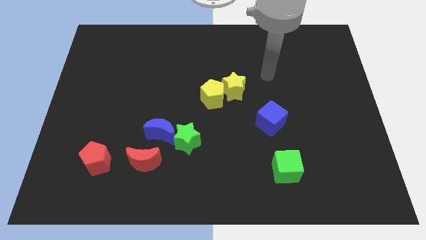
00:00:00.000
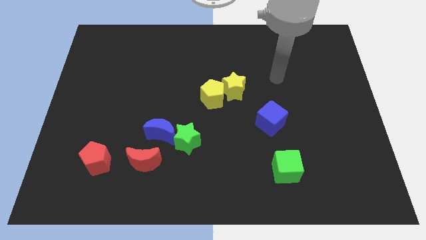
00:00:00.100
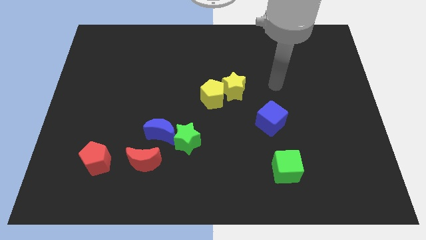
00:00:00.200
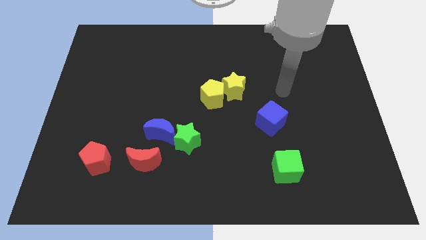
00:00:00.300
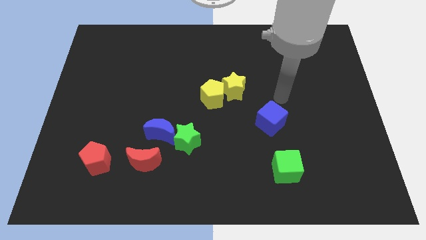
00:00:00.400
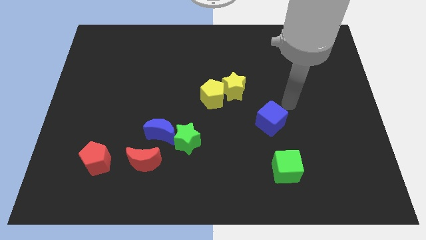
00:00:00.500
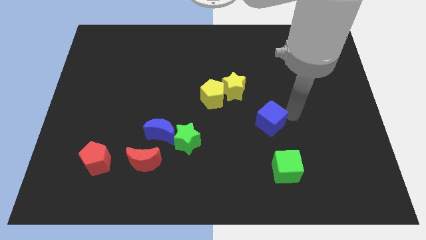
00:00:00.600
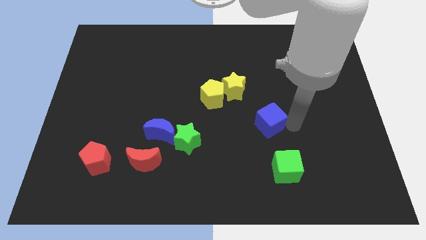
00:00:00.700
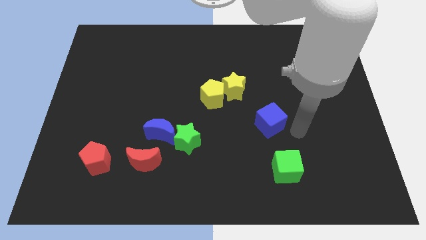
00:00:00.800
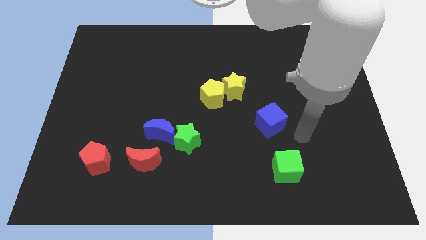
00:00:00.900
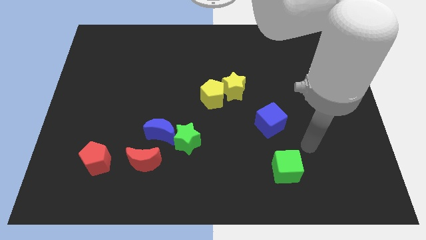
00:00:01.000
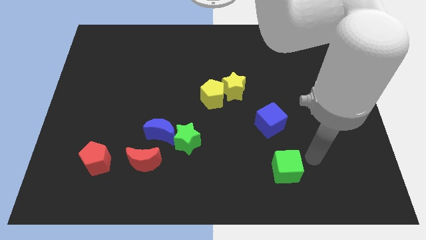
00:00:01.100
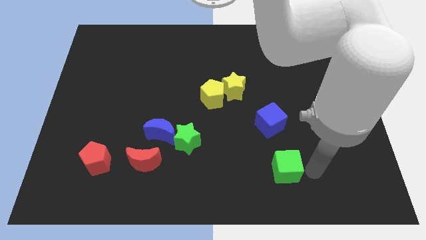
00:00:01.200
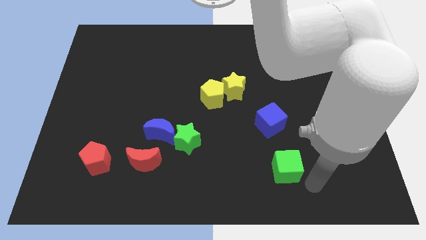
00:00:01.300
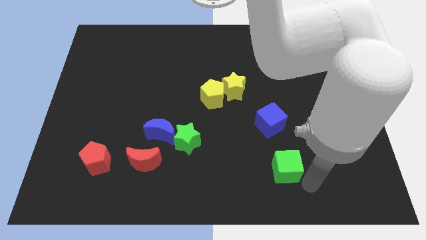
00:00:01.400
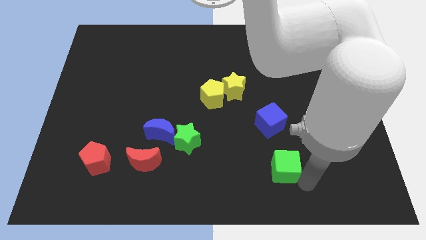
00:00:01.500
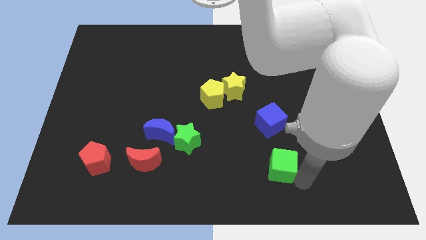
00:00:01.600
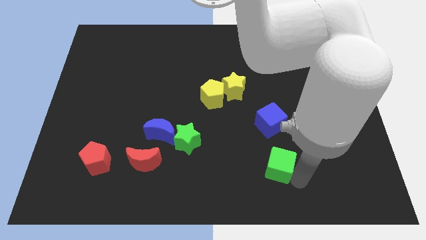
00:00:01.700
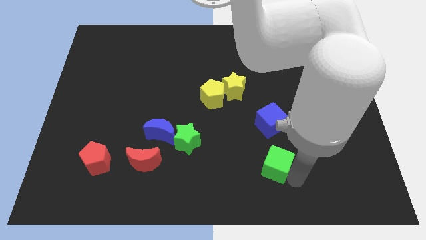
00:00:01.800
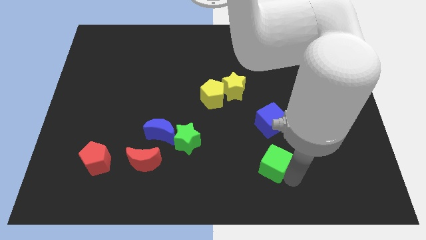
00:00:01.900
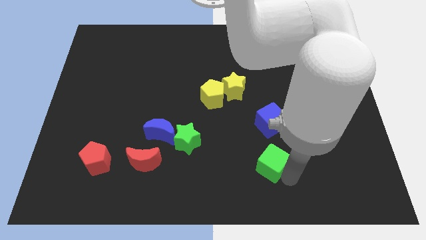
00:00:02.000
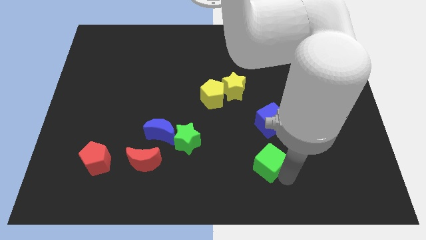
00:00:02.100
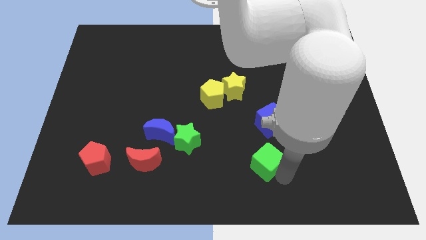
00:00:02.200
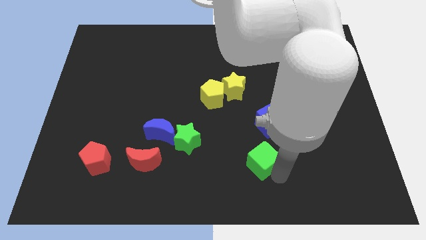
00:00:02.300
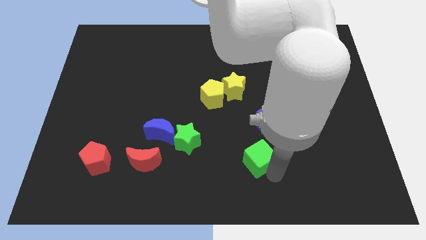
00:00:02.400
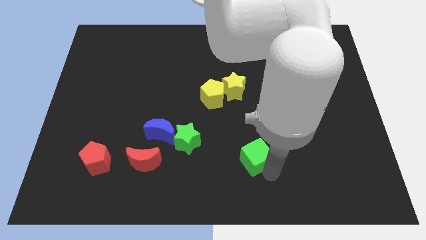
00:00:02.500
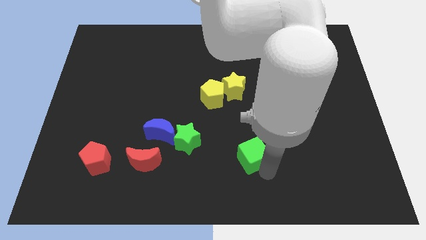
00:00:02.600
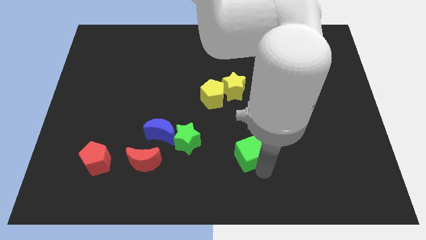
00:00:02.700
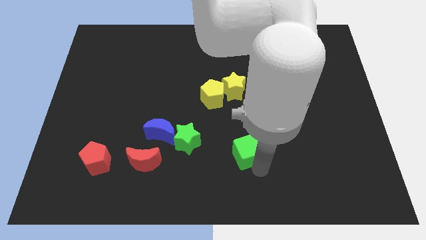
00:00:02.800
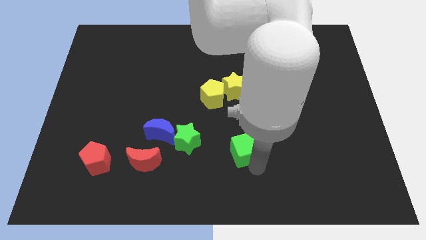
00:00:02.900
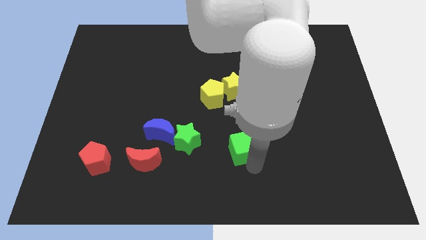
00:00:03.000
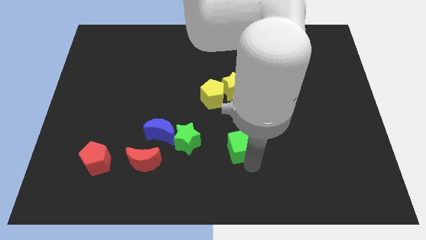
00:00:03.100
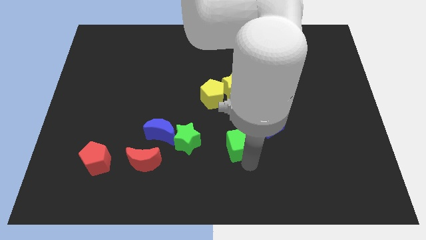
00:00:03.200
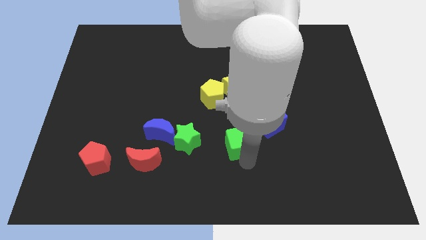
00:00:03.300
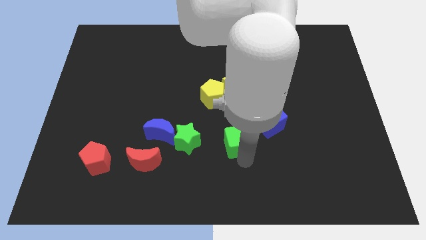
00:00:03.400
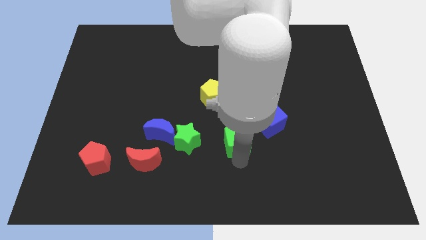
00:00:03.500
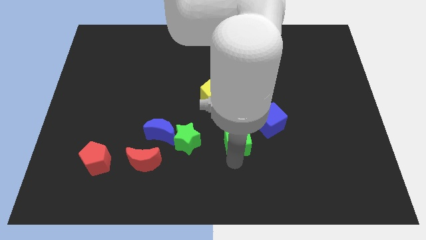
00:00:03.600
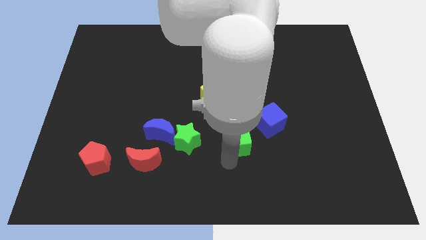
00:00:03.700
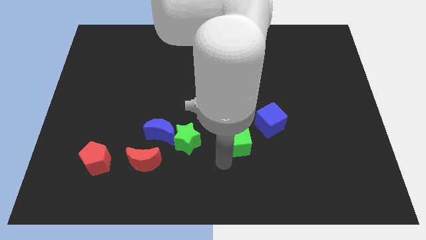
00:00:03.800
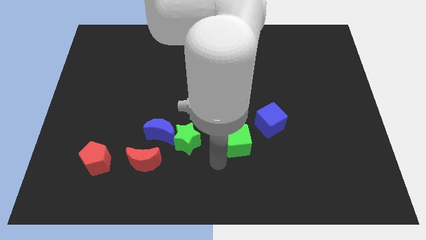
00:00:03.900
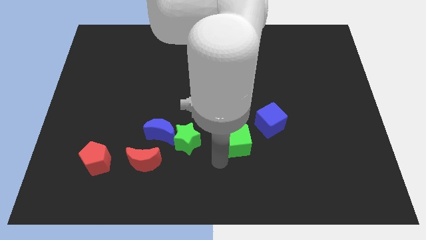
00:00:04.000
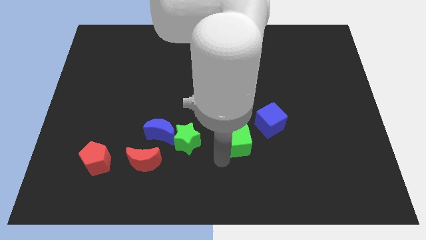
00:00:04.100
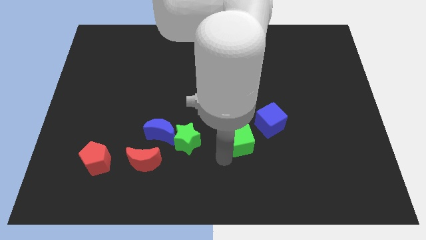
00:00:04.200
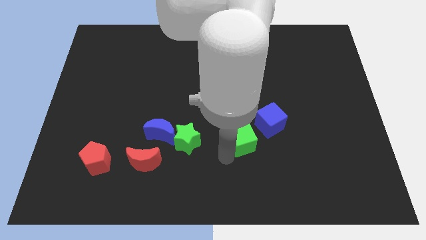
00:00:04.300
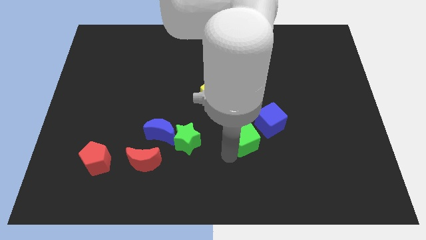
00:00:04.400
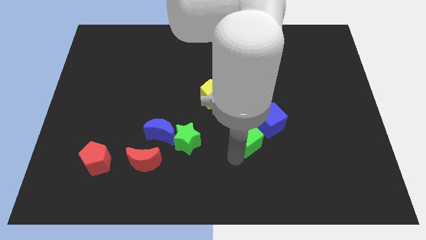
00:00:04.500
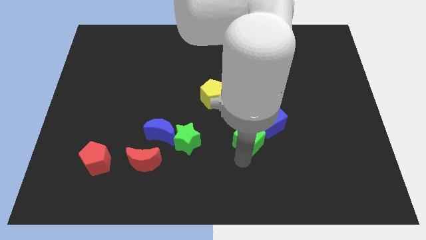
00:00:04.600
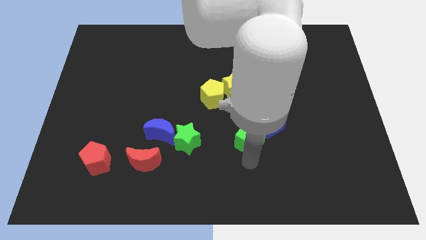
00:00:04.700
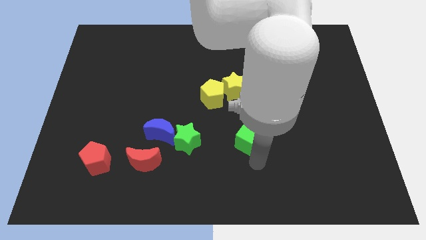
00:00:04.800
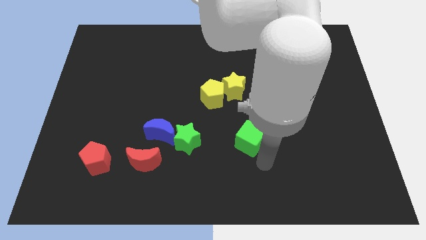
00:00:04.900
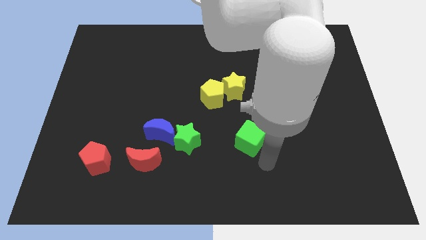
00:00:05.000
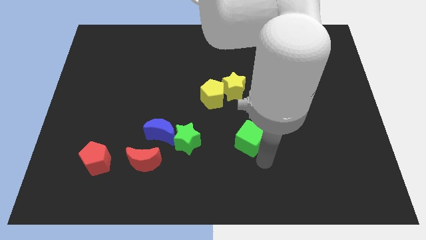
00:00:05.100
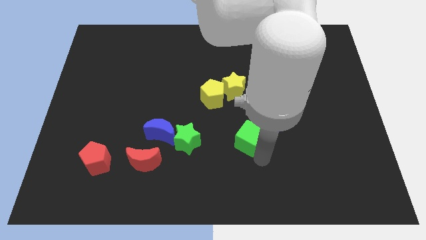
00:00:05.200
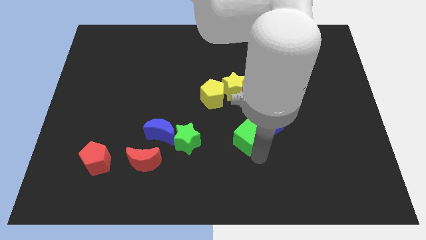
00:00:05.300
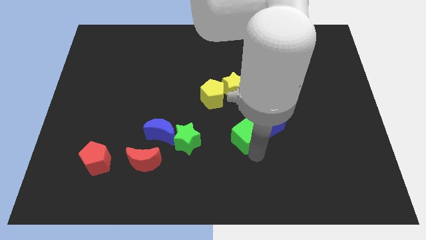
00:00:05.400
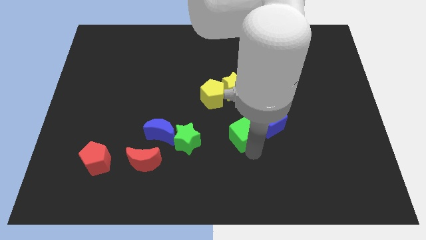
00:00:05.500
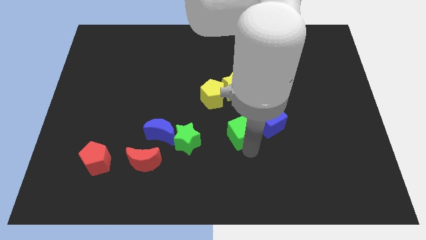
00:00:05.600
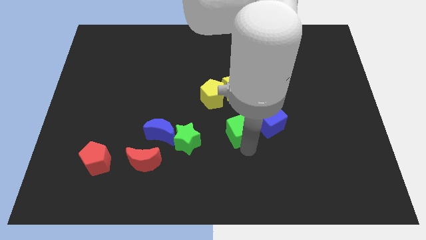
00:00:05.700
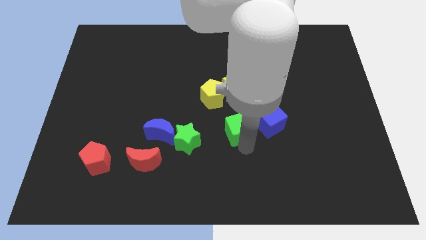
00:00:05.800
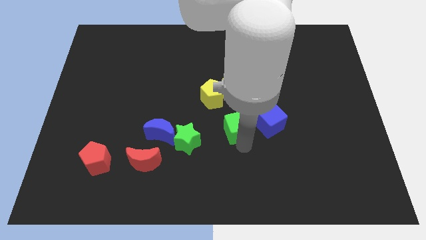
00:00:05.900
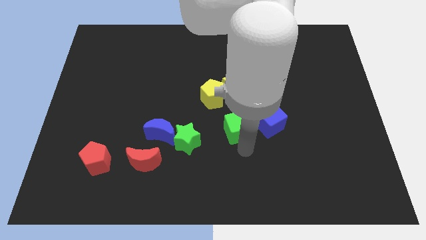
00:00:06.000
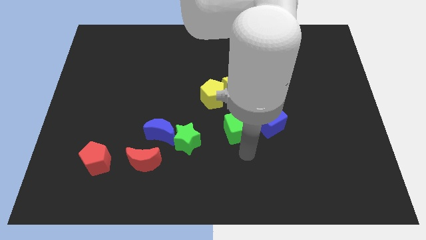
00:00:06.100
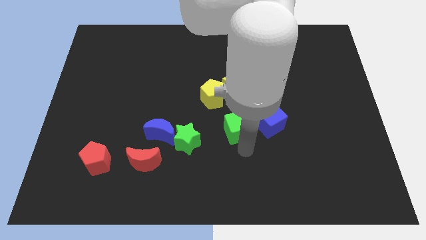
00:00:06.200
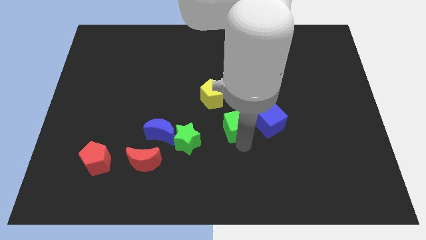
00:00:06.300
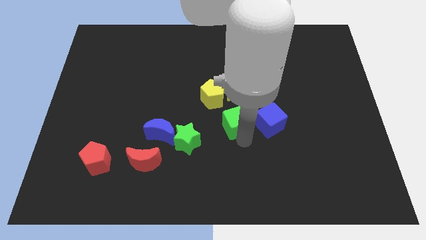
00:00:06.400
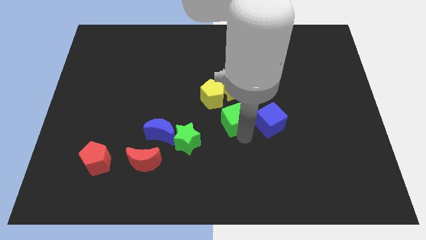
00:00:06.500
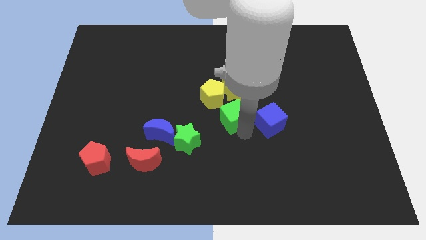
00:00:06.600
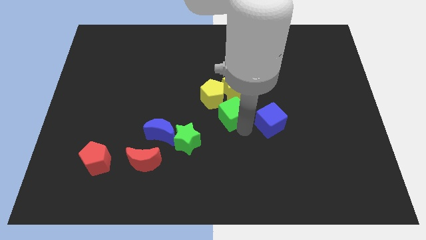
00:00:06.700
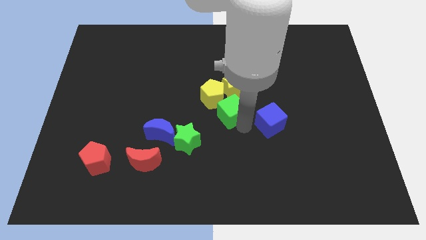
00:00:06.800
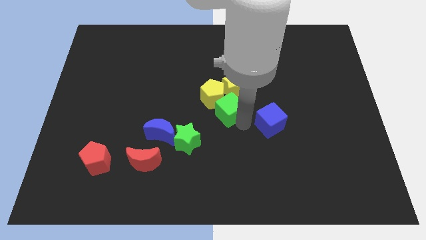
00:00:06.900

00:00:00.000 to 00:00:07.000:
put the green cube to the yellow pentagon
